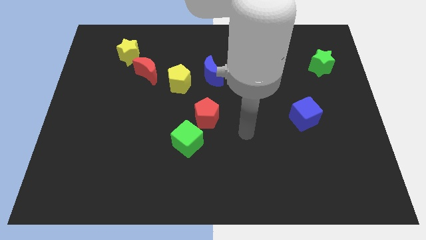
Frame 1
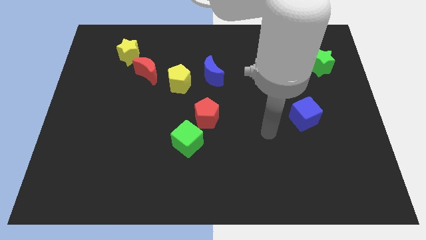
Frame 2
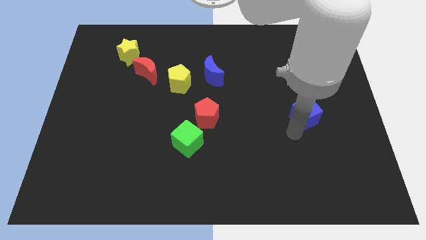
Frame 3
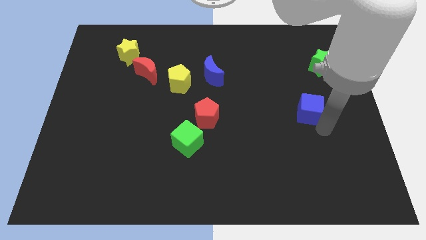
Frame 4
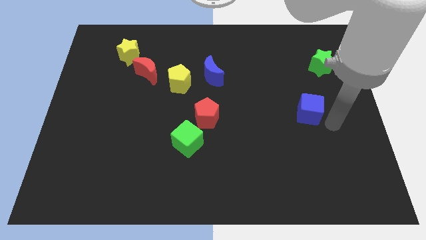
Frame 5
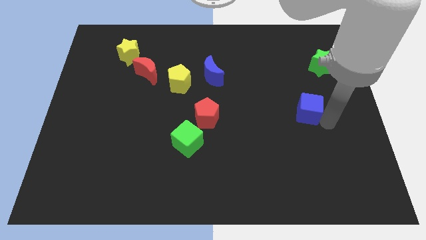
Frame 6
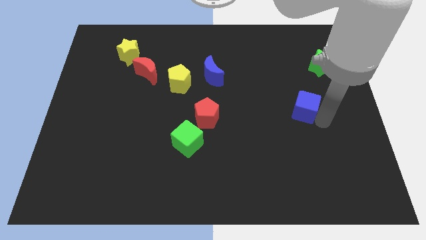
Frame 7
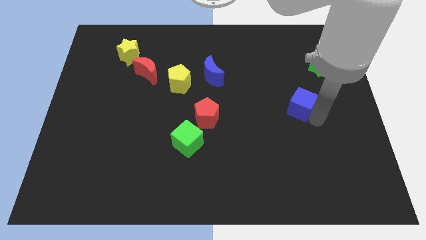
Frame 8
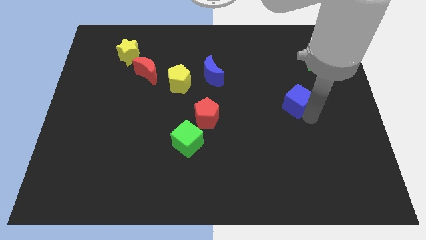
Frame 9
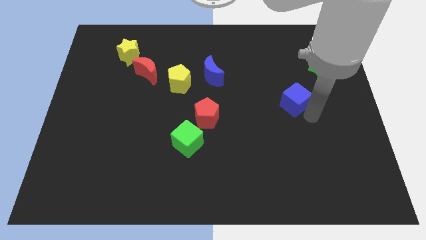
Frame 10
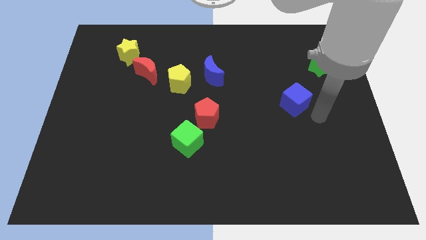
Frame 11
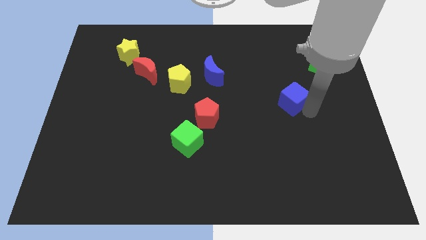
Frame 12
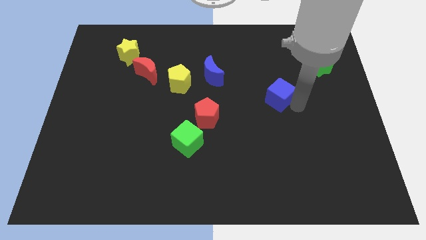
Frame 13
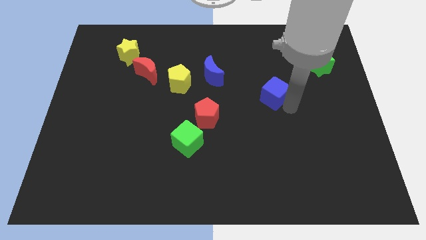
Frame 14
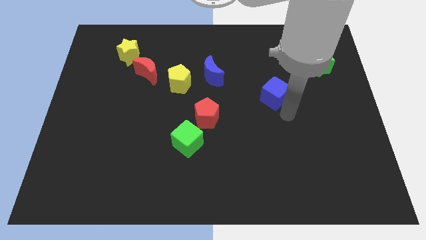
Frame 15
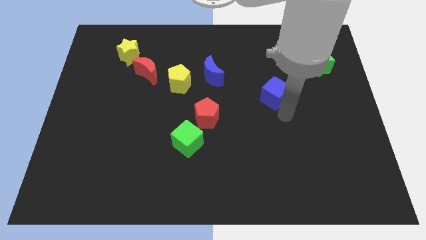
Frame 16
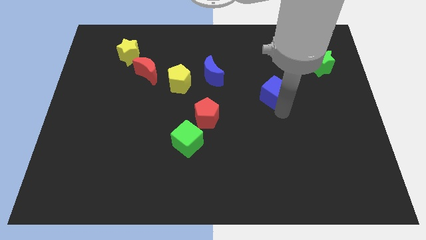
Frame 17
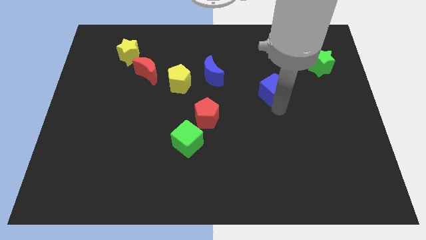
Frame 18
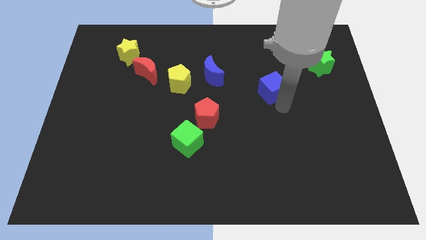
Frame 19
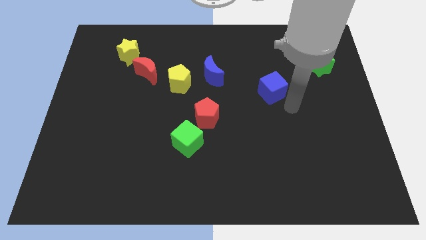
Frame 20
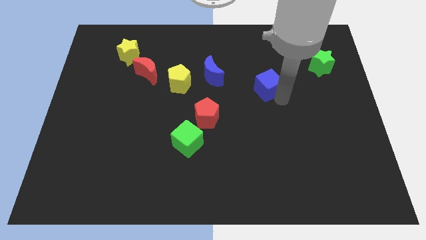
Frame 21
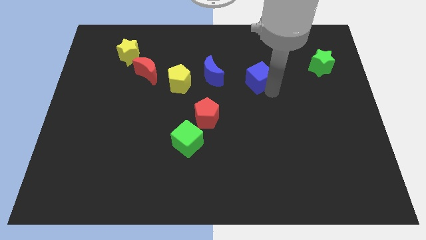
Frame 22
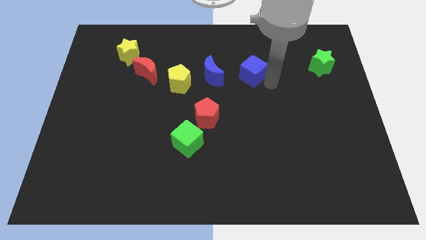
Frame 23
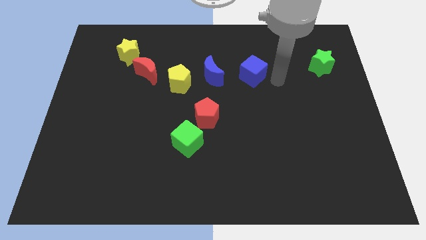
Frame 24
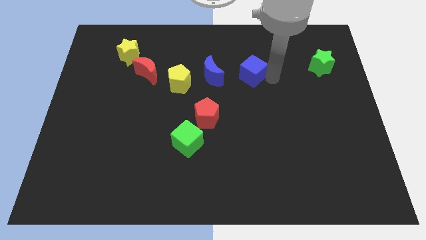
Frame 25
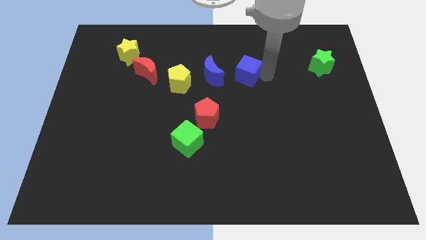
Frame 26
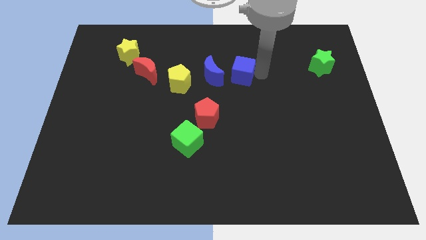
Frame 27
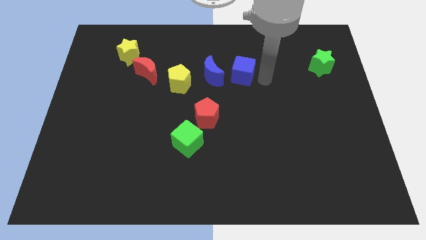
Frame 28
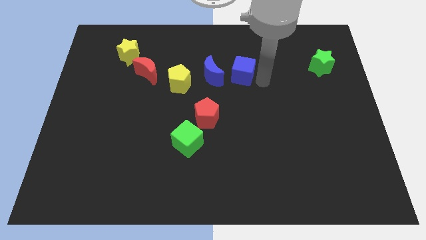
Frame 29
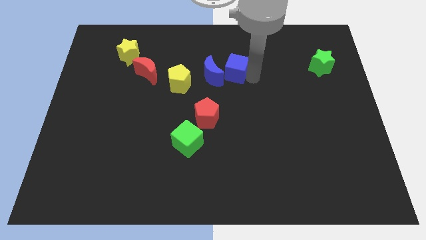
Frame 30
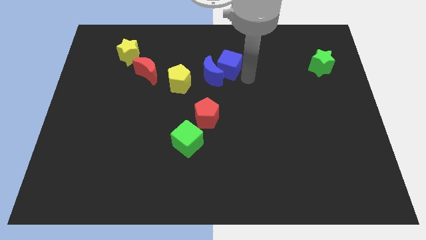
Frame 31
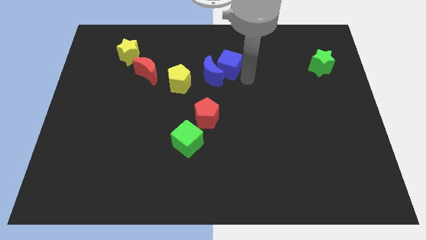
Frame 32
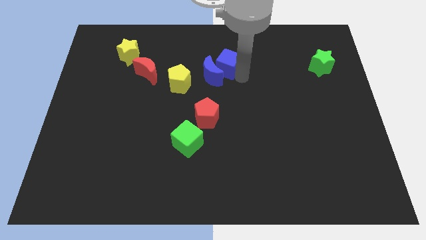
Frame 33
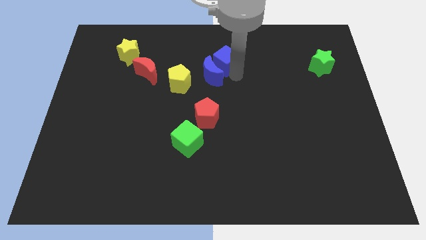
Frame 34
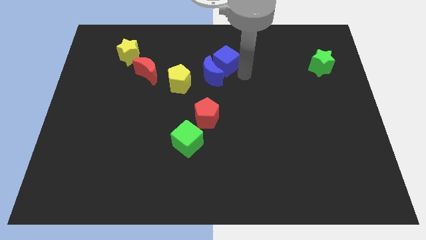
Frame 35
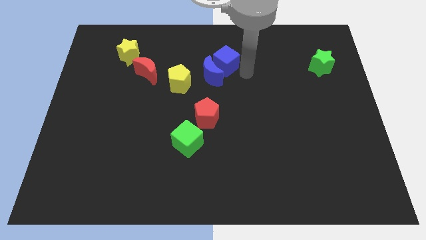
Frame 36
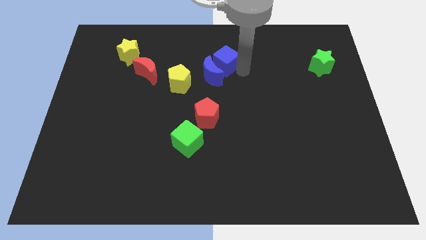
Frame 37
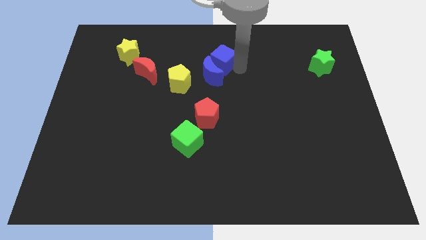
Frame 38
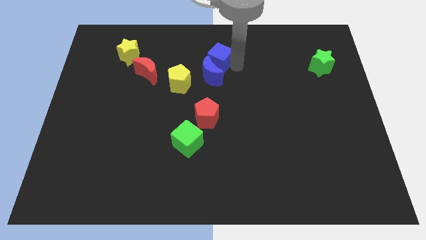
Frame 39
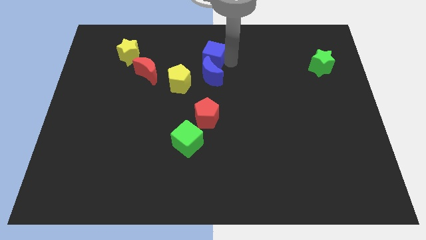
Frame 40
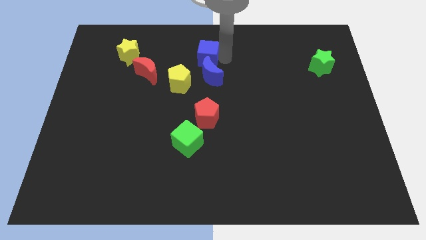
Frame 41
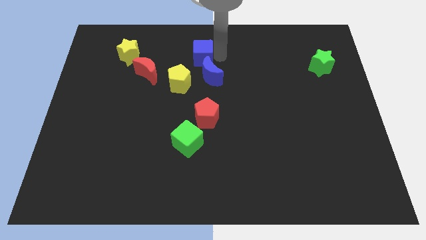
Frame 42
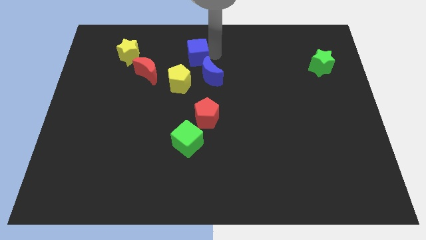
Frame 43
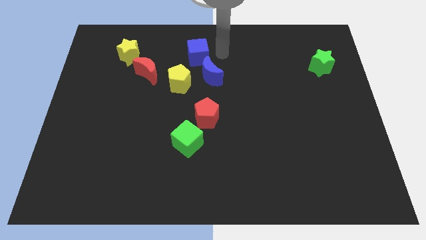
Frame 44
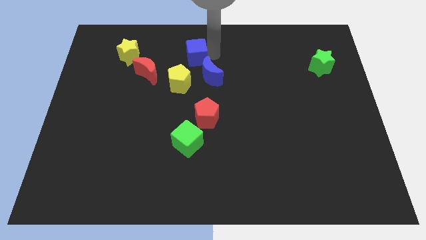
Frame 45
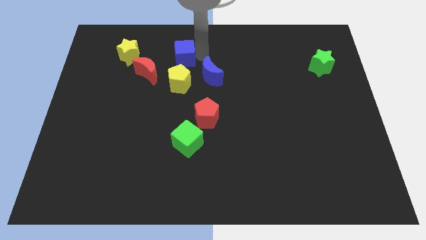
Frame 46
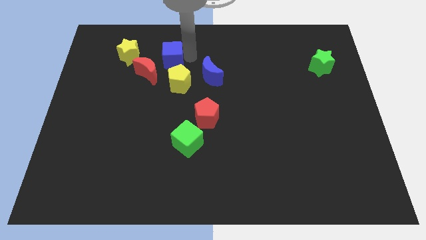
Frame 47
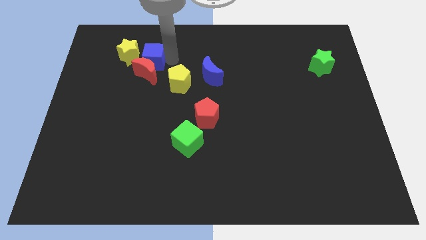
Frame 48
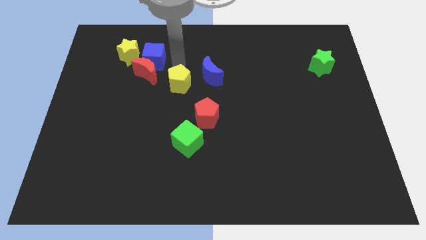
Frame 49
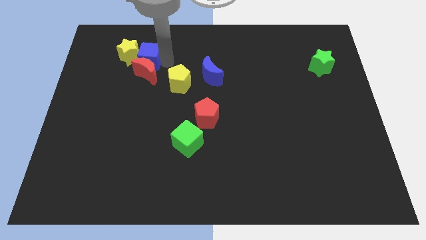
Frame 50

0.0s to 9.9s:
move the blue cube close to the yellow star

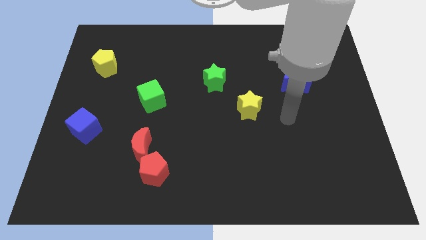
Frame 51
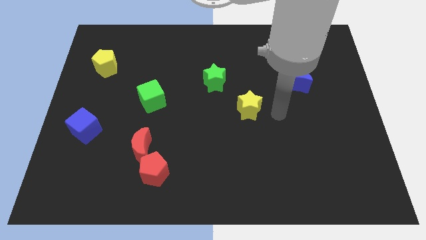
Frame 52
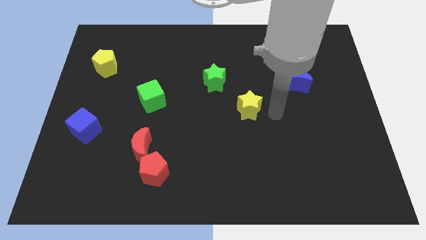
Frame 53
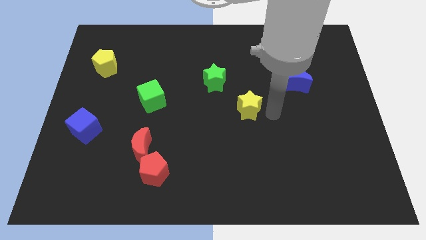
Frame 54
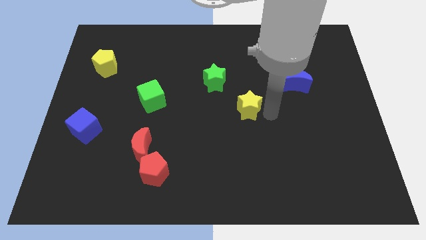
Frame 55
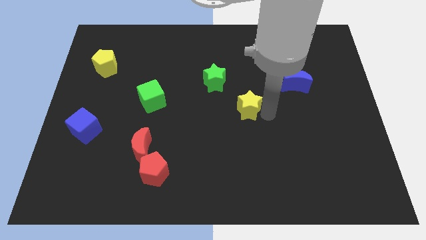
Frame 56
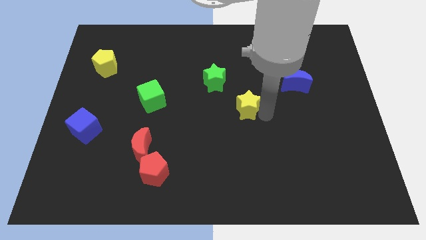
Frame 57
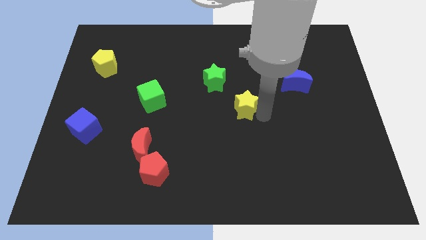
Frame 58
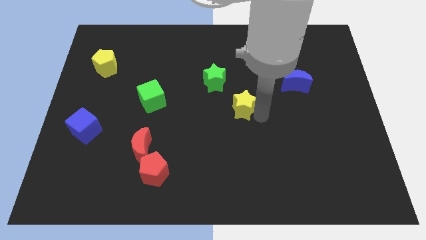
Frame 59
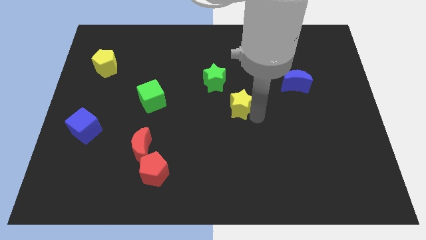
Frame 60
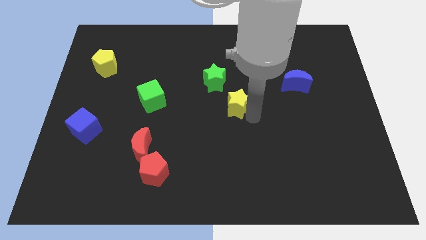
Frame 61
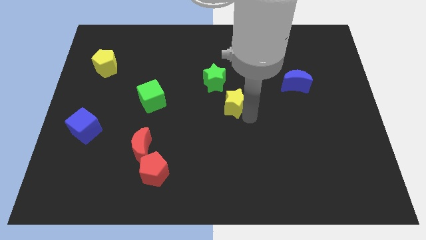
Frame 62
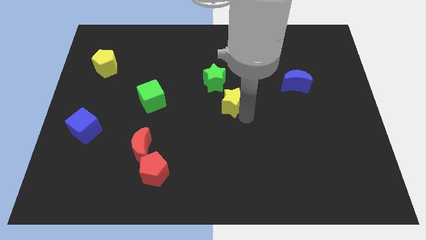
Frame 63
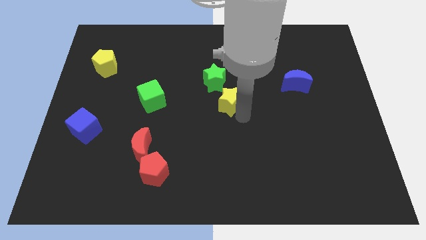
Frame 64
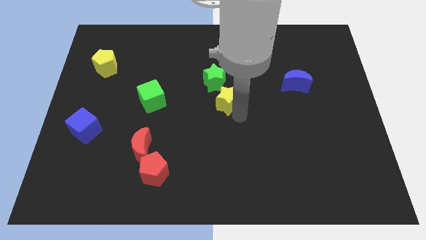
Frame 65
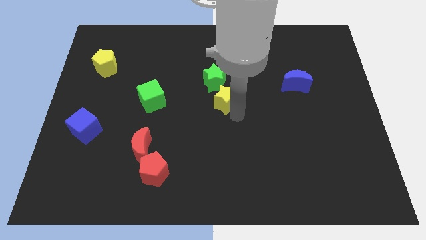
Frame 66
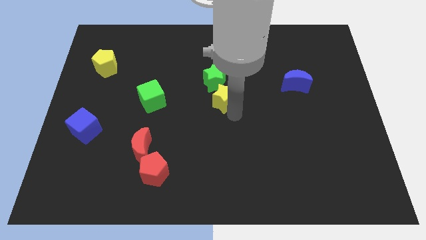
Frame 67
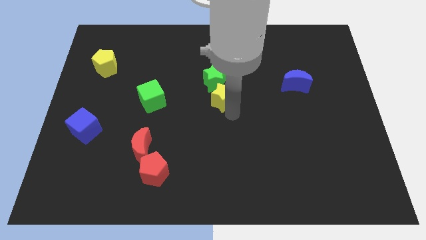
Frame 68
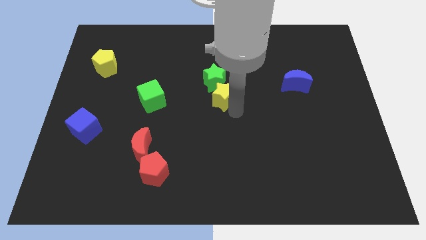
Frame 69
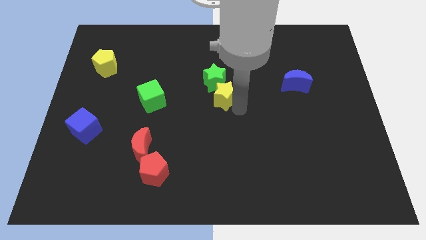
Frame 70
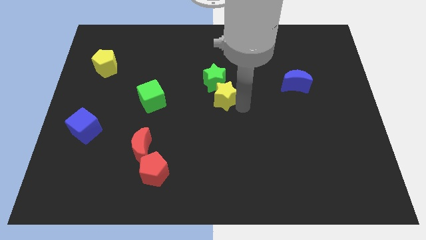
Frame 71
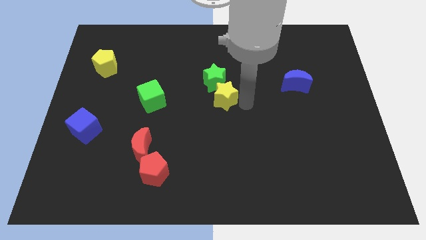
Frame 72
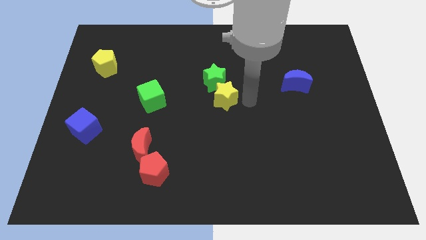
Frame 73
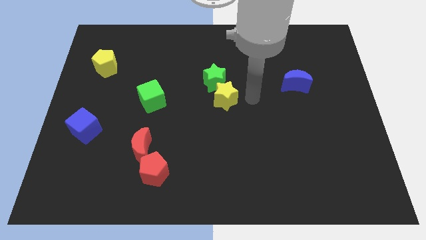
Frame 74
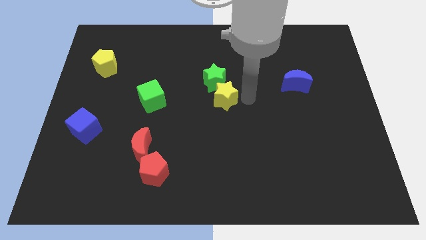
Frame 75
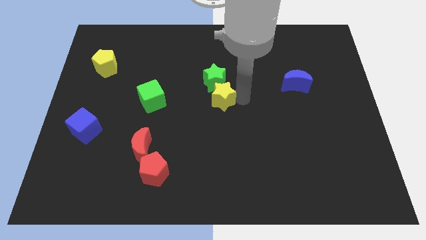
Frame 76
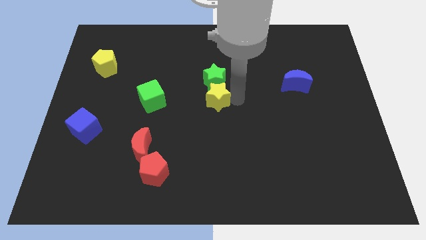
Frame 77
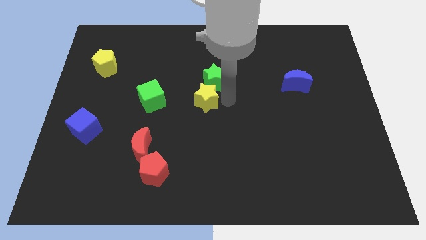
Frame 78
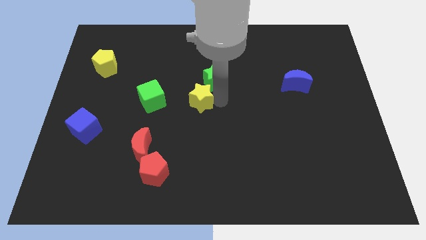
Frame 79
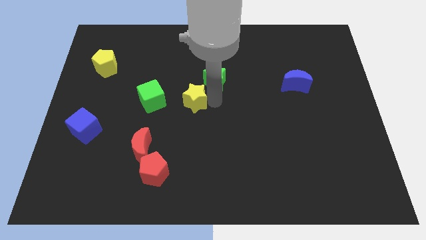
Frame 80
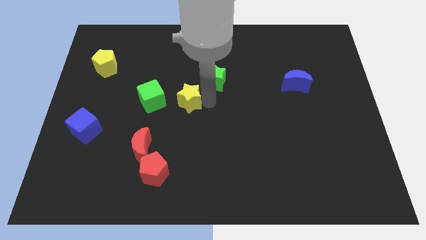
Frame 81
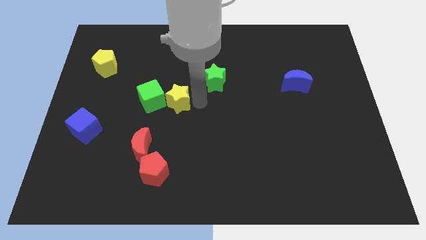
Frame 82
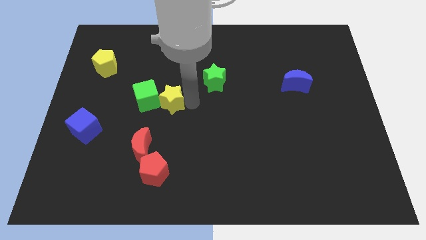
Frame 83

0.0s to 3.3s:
put the yellow star close to the green cube
